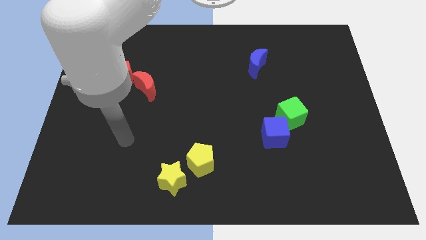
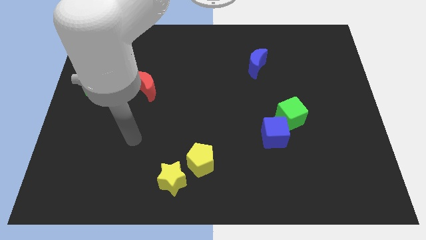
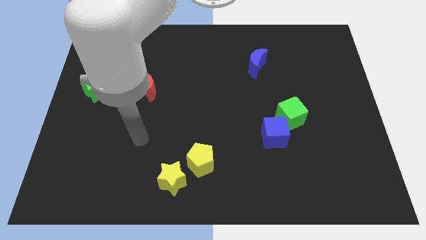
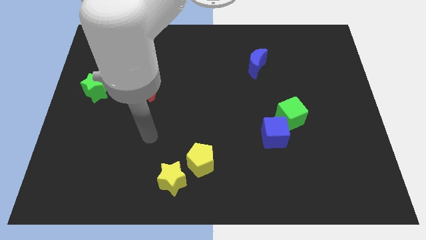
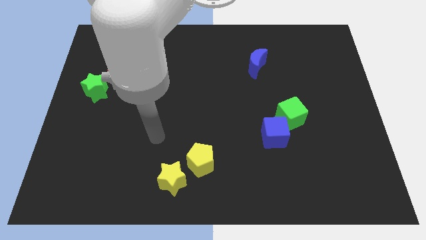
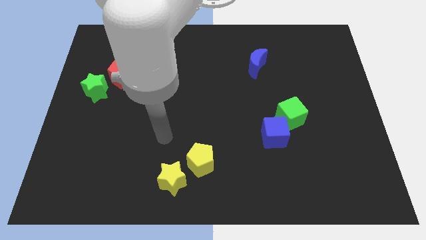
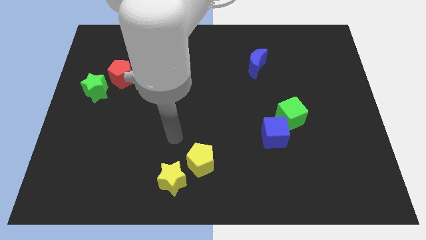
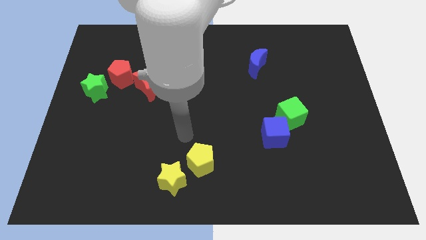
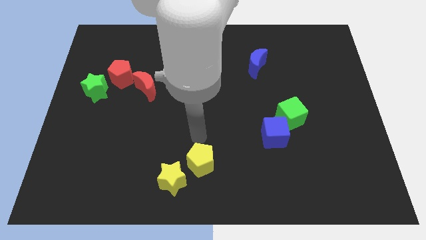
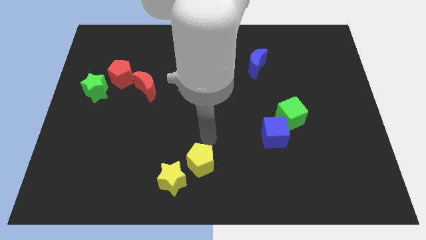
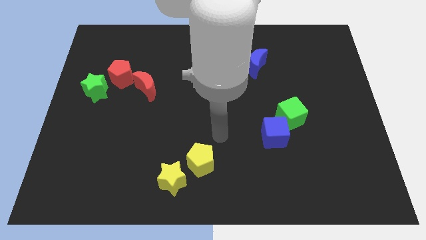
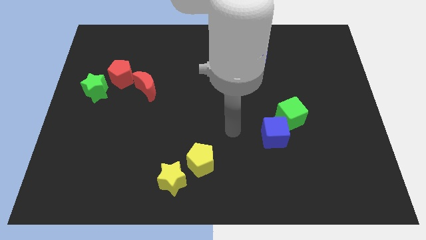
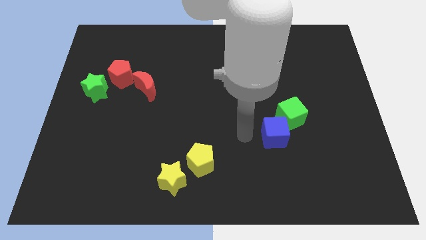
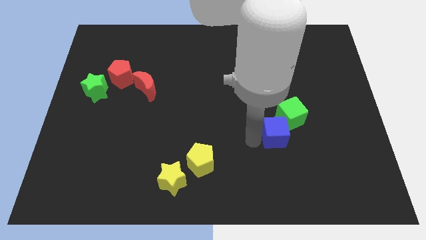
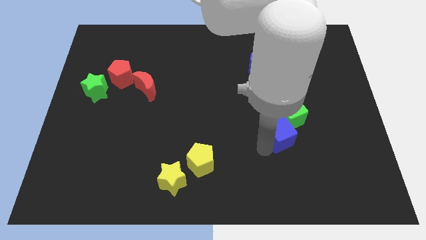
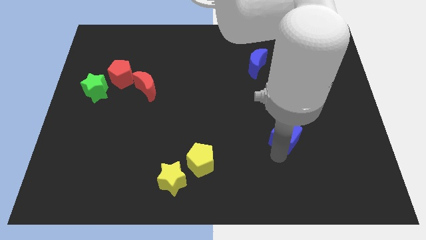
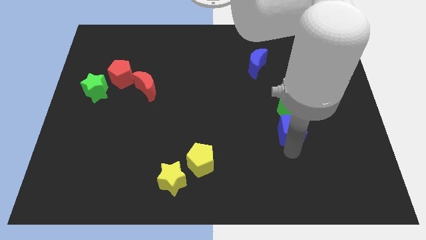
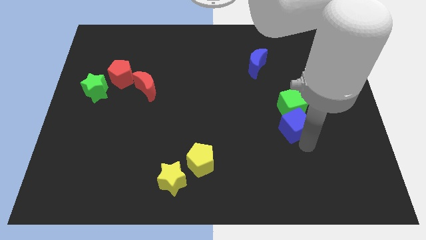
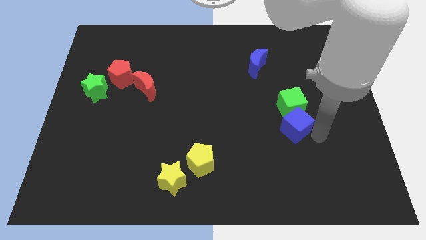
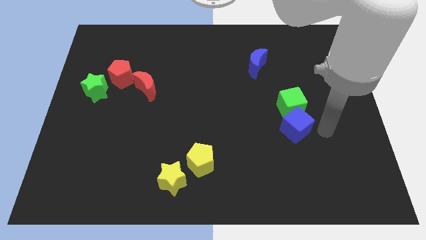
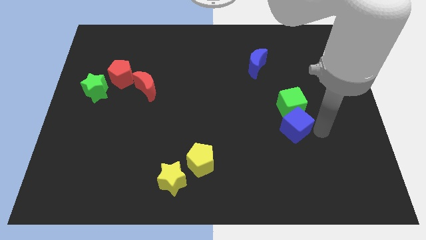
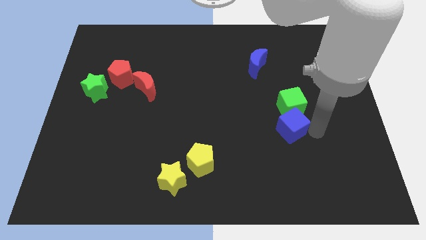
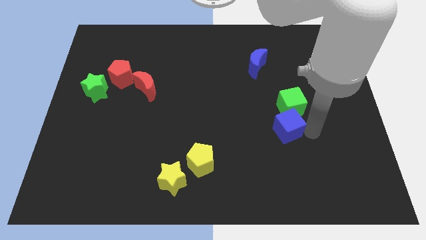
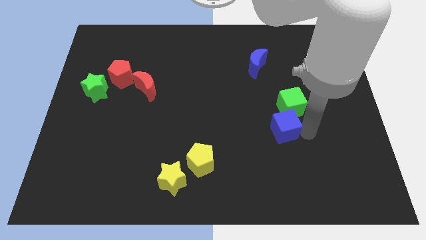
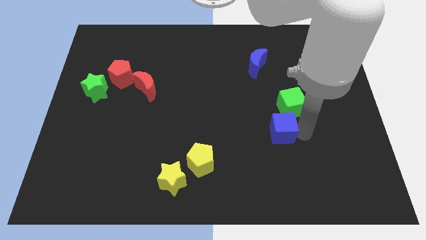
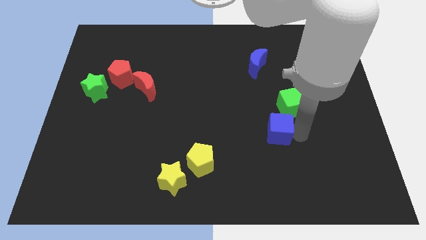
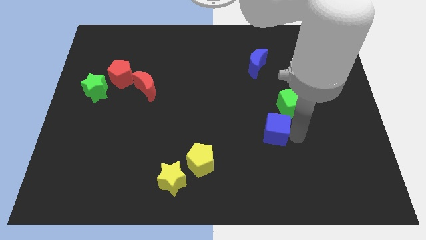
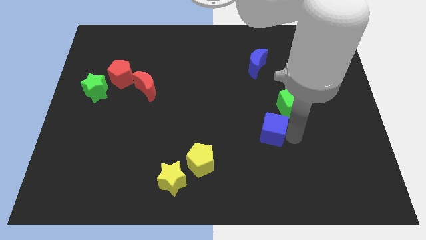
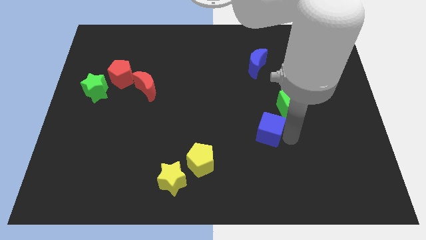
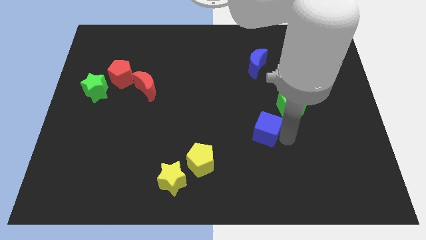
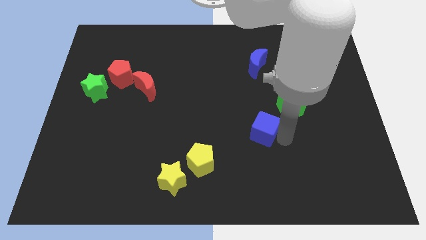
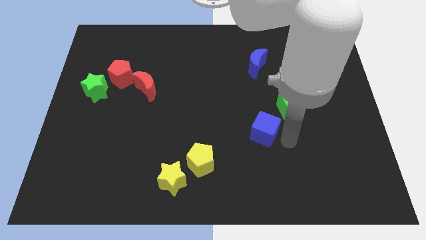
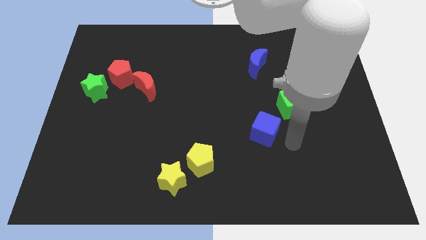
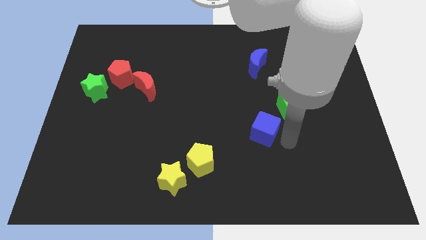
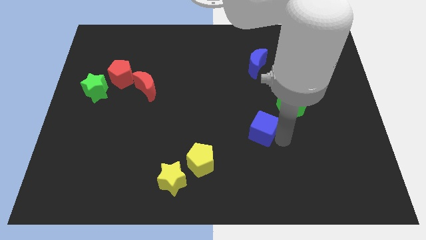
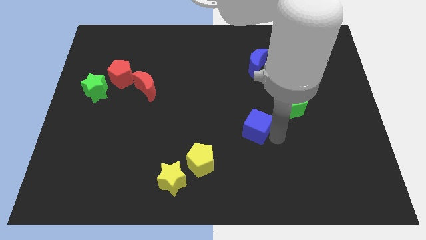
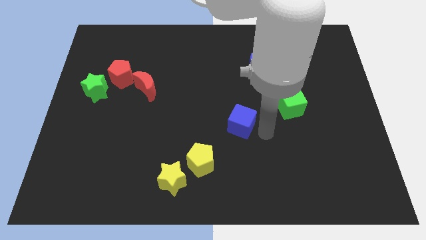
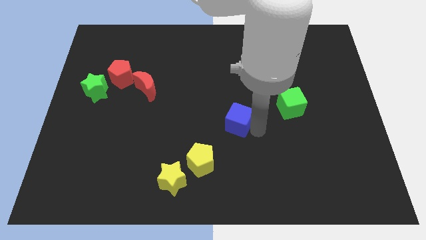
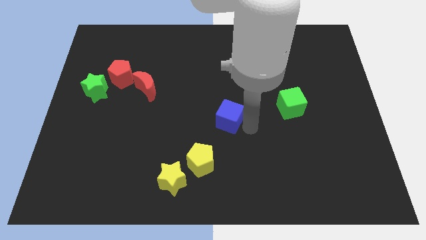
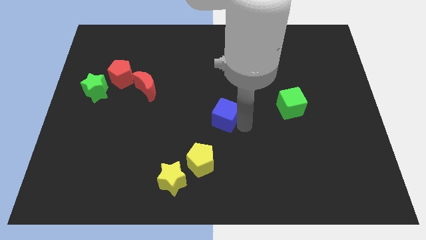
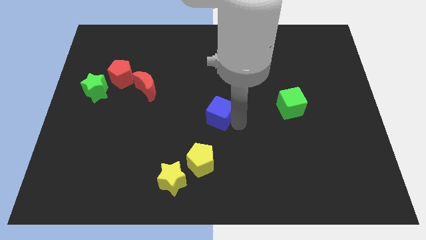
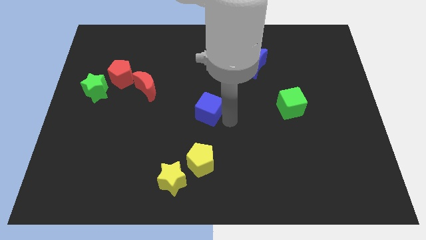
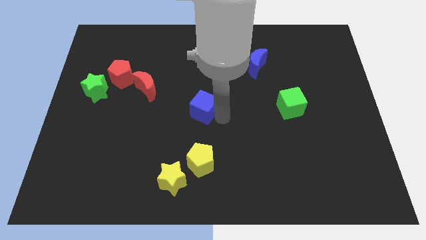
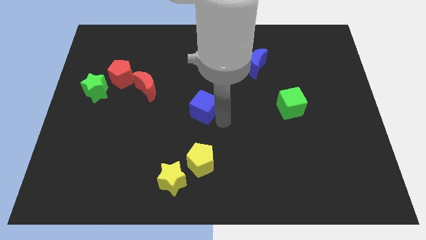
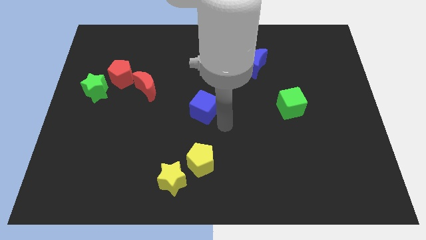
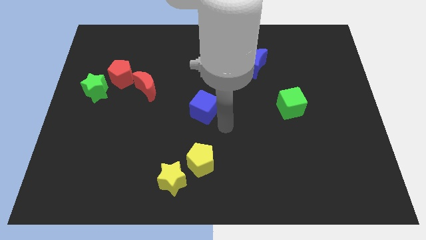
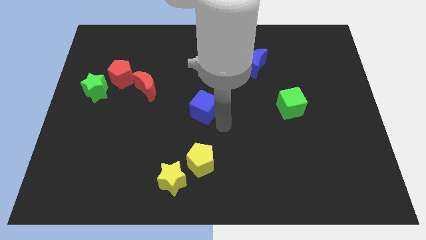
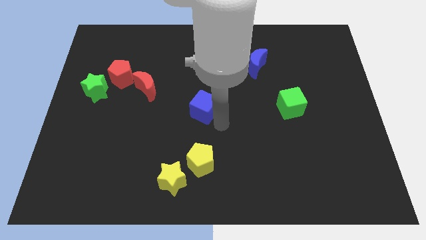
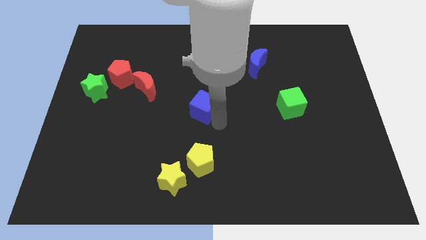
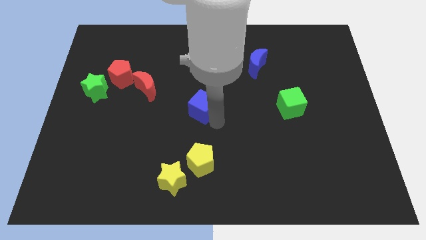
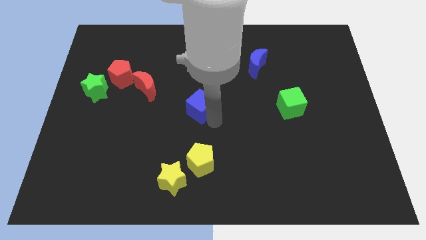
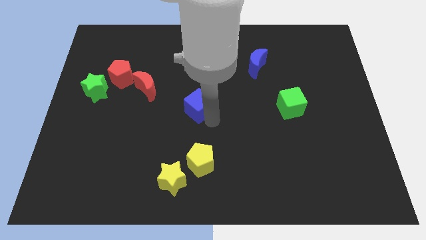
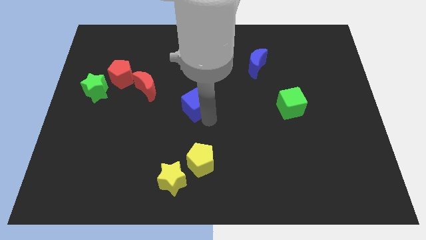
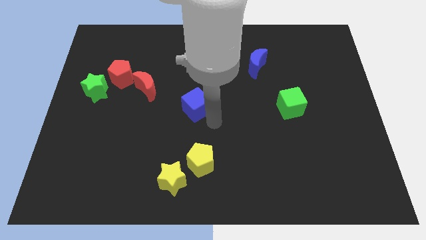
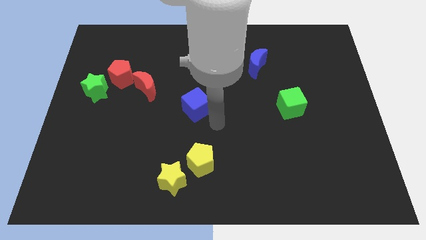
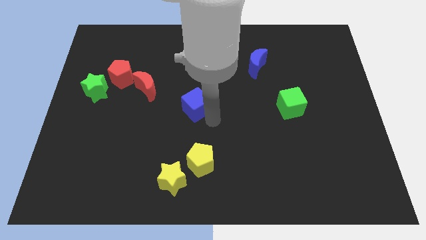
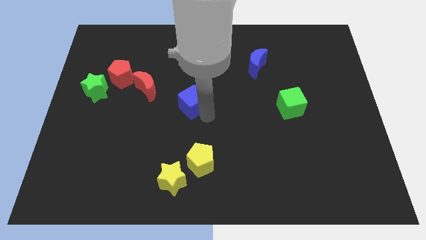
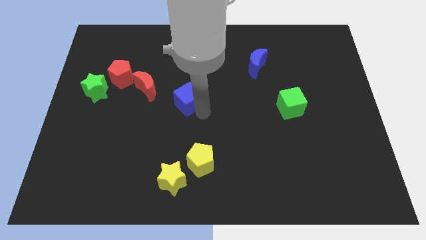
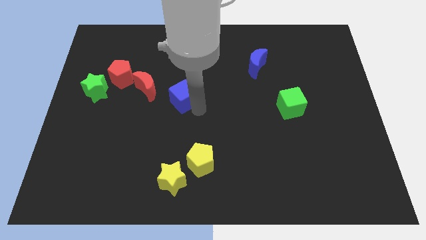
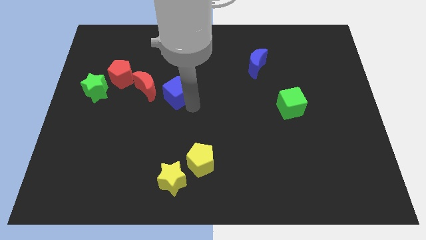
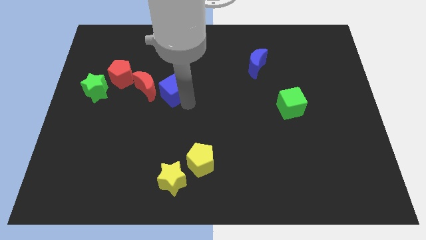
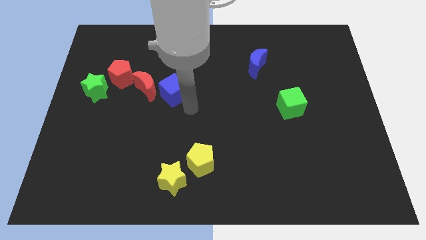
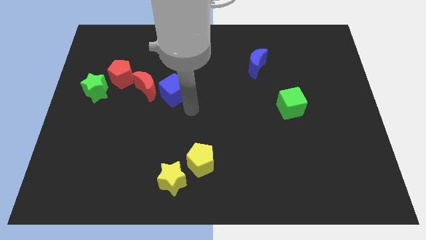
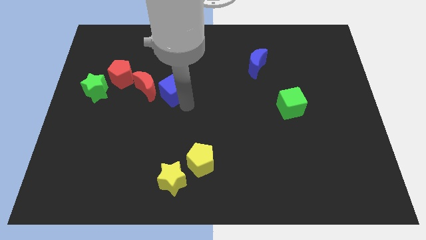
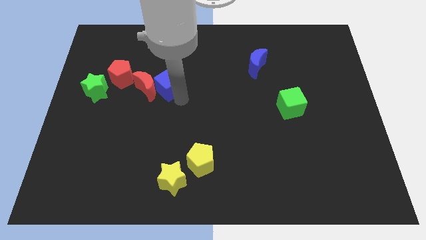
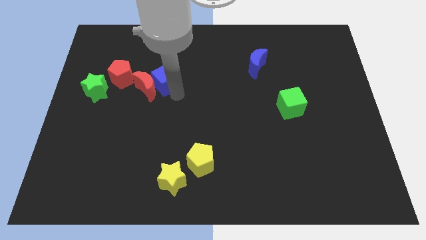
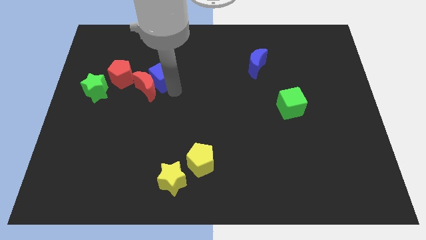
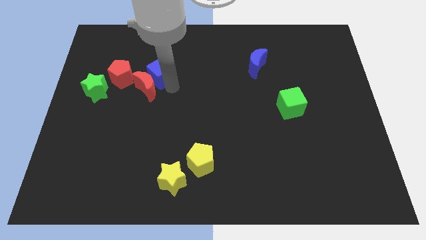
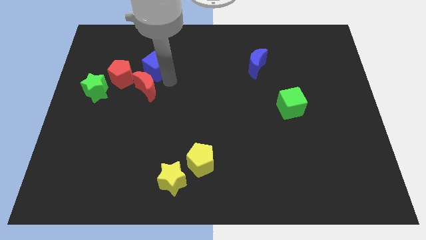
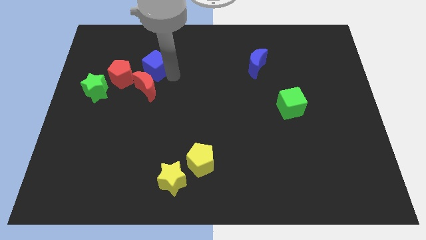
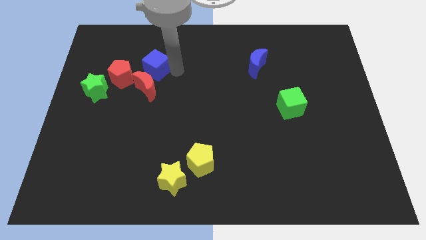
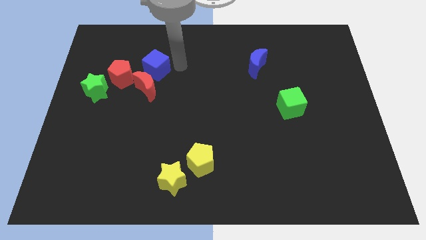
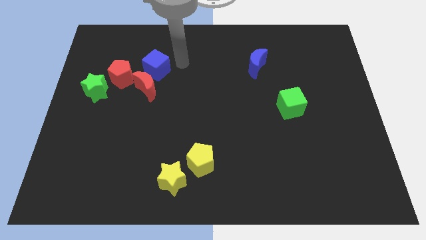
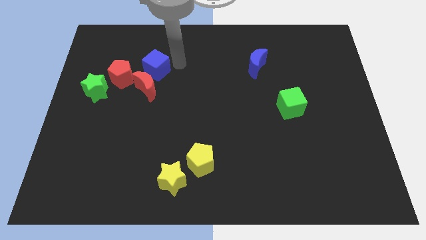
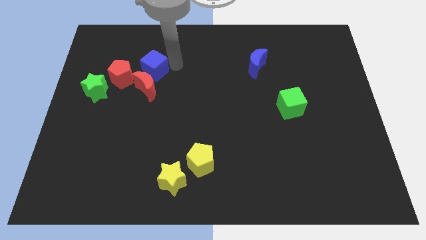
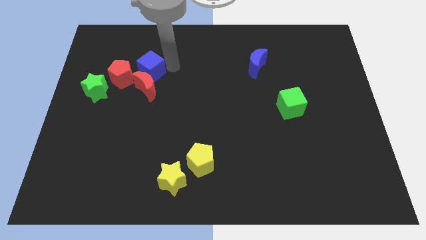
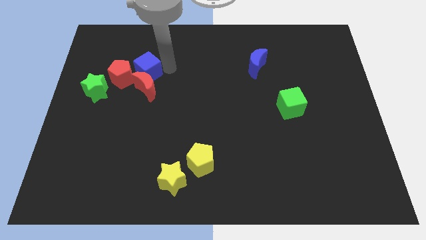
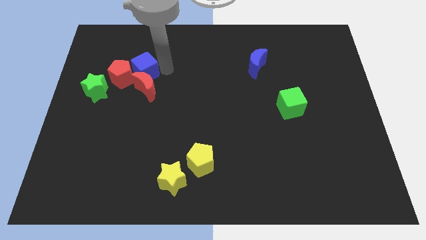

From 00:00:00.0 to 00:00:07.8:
push the blue cube close to the red pentagon

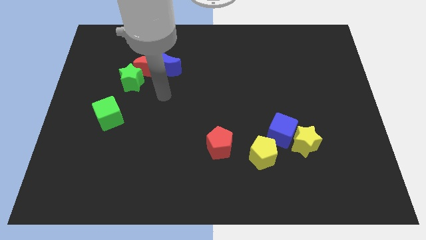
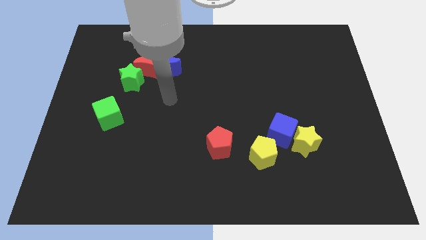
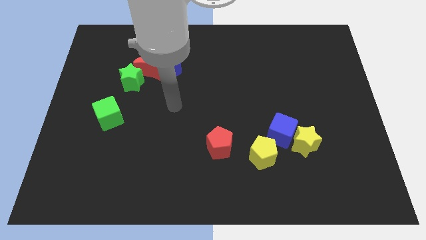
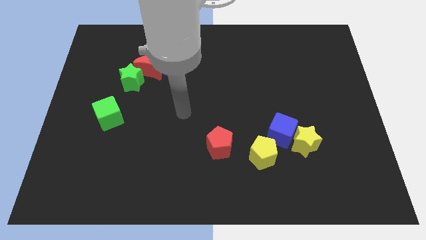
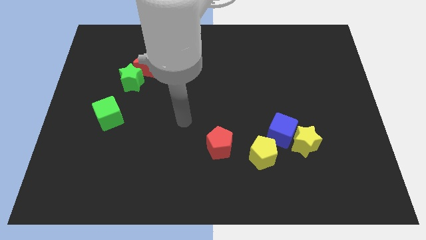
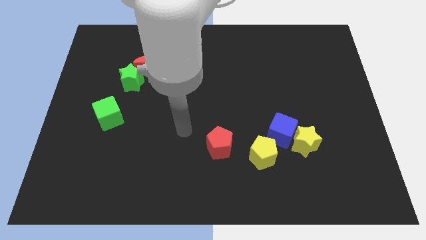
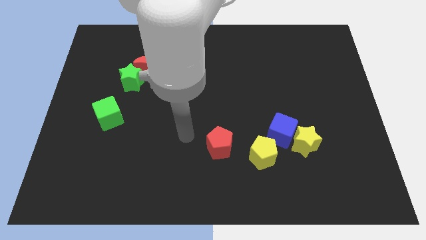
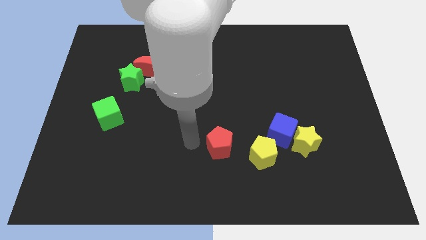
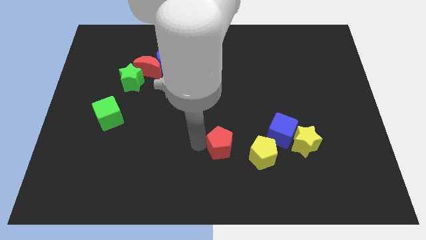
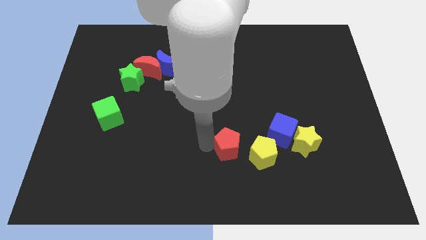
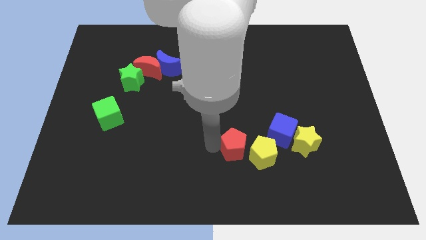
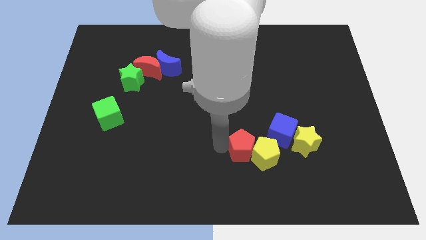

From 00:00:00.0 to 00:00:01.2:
put the red pentagon to the yellow pentagon
